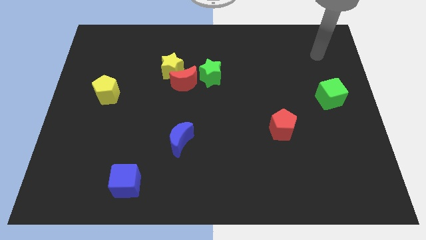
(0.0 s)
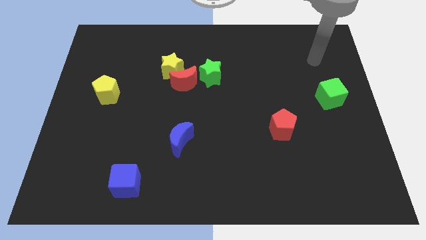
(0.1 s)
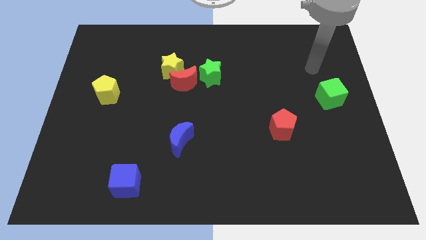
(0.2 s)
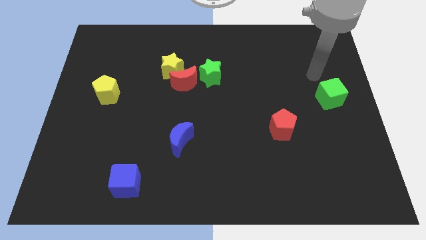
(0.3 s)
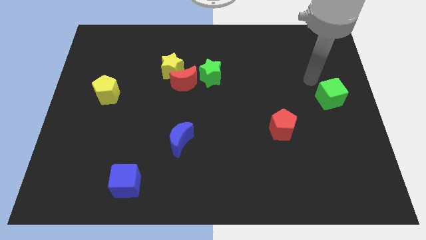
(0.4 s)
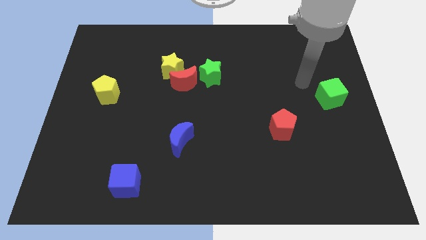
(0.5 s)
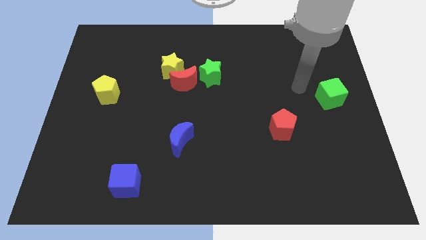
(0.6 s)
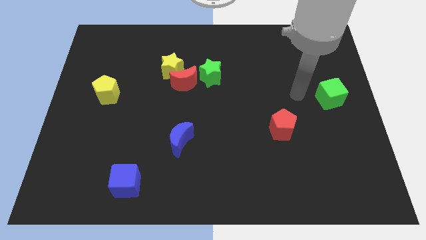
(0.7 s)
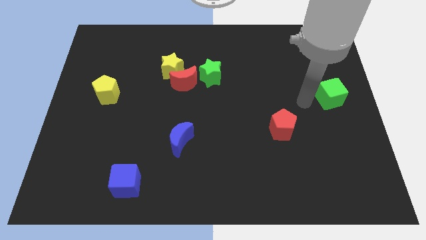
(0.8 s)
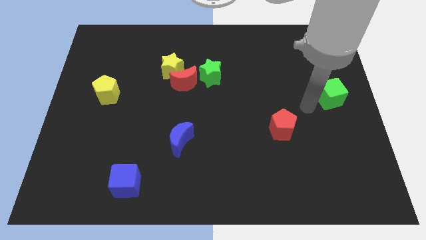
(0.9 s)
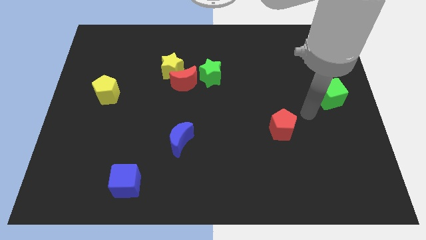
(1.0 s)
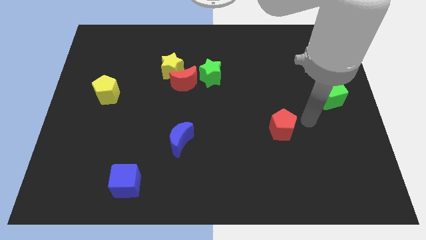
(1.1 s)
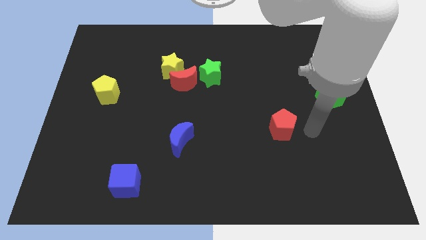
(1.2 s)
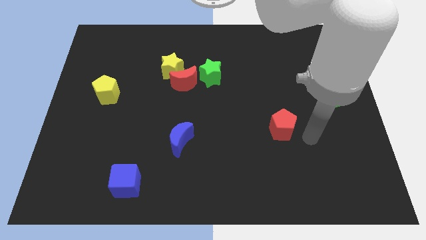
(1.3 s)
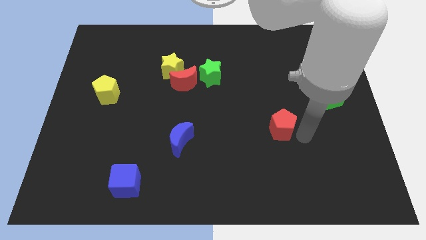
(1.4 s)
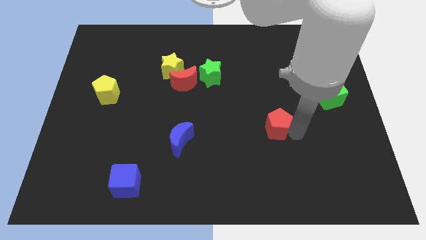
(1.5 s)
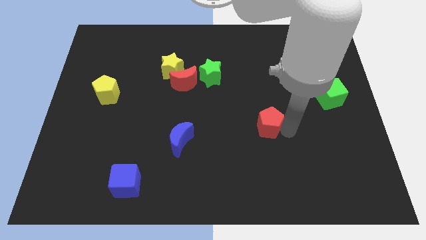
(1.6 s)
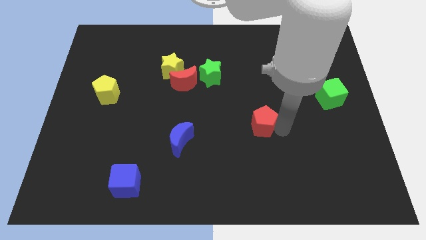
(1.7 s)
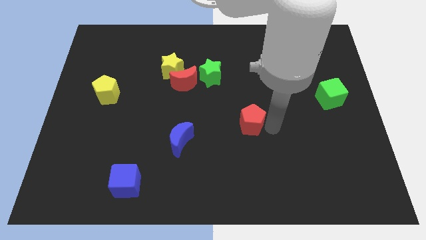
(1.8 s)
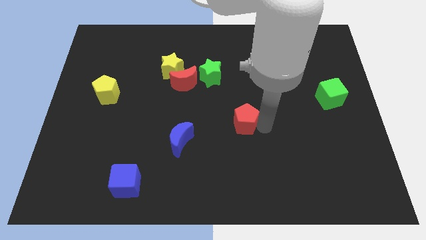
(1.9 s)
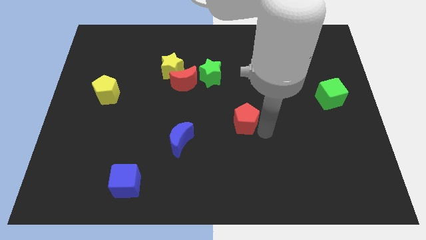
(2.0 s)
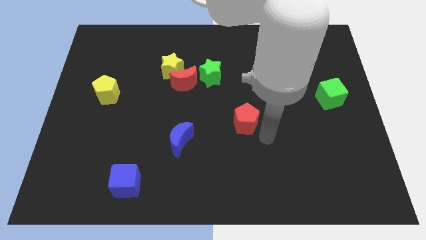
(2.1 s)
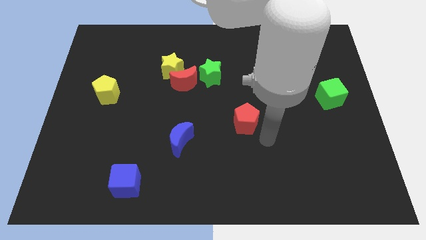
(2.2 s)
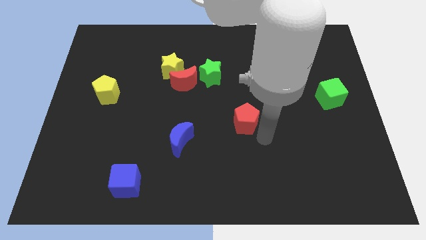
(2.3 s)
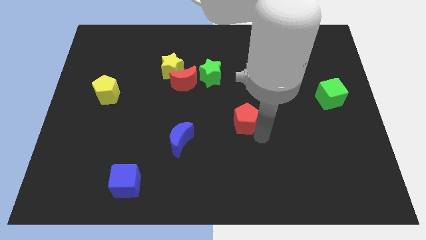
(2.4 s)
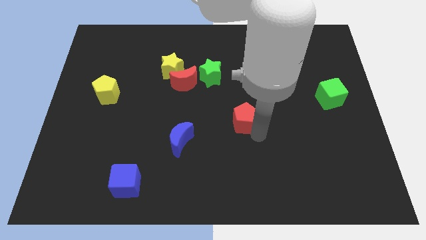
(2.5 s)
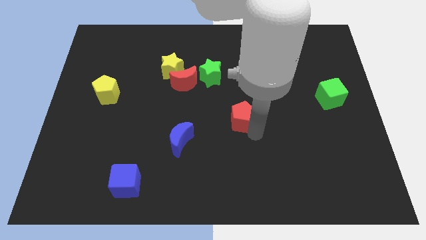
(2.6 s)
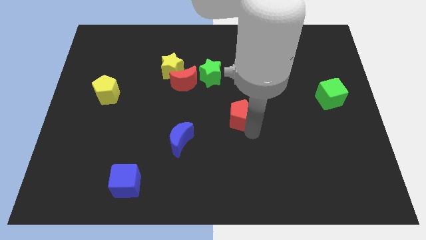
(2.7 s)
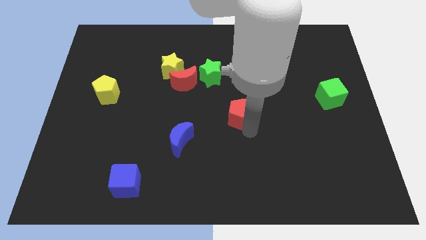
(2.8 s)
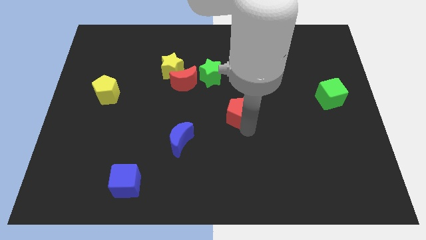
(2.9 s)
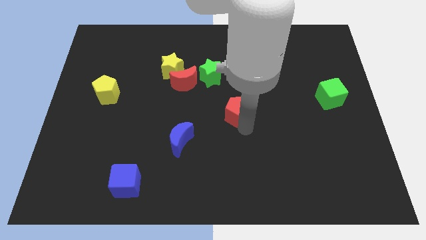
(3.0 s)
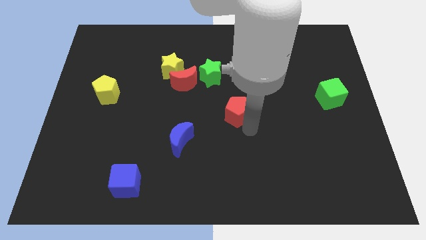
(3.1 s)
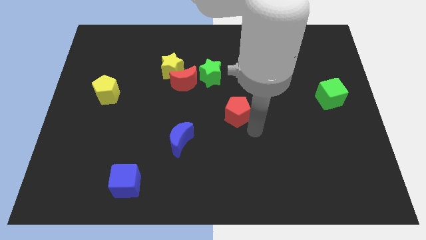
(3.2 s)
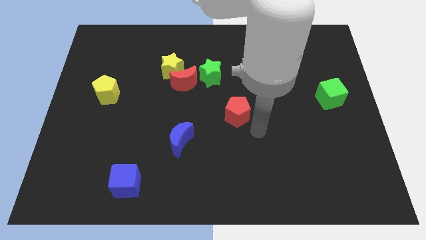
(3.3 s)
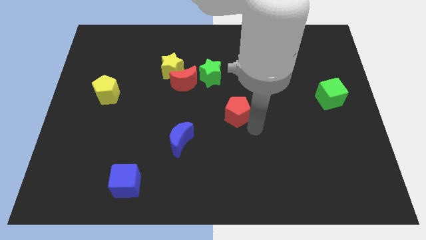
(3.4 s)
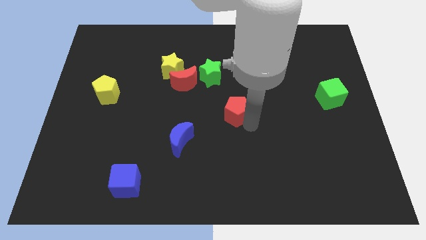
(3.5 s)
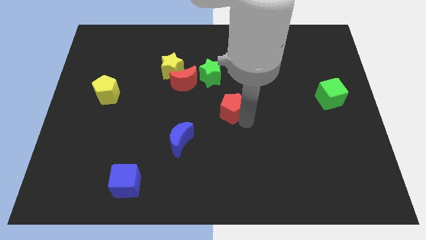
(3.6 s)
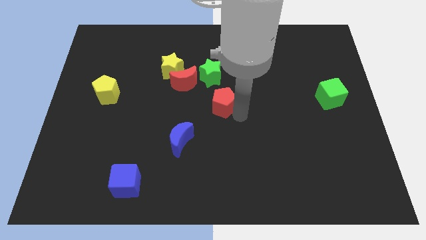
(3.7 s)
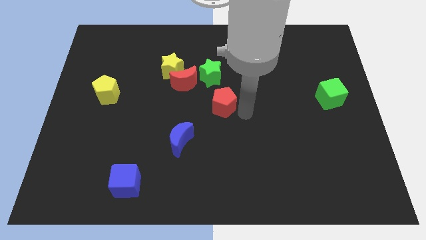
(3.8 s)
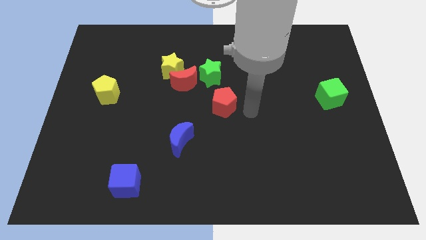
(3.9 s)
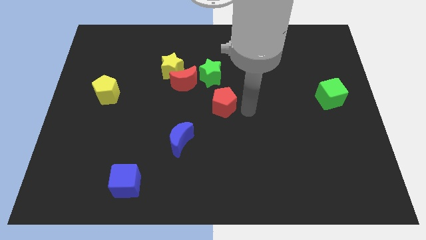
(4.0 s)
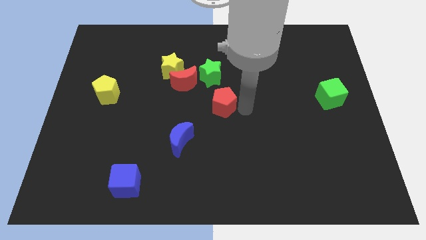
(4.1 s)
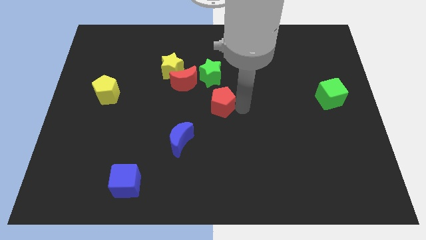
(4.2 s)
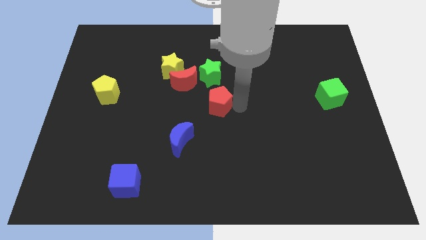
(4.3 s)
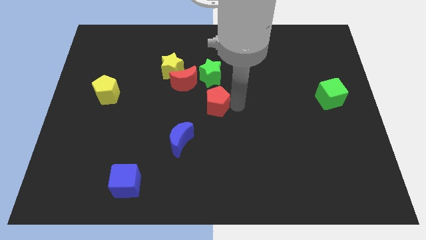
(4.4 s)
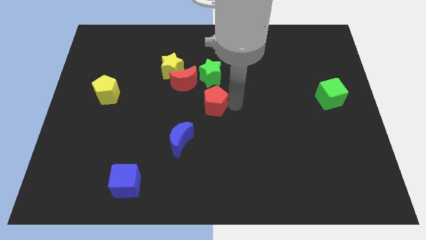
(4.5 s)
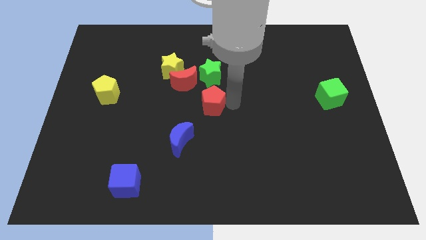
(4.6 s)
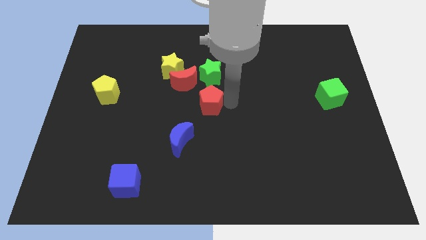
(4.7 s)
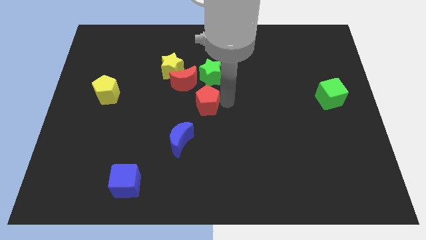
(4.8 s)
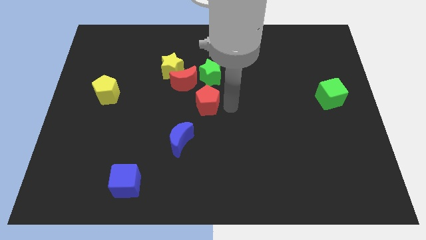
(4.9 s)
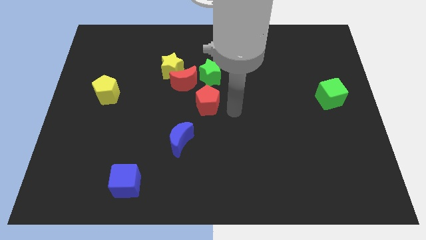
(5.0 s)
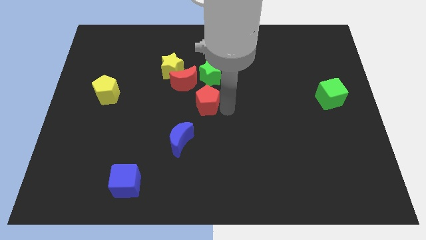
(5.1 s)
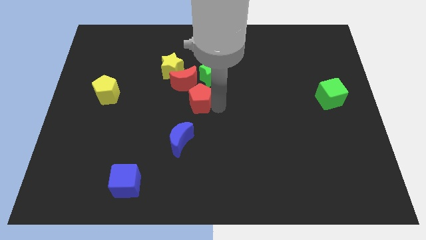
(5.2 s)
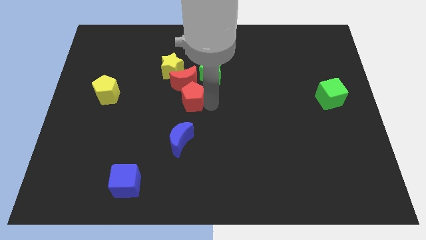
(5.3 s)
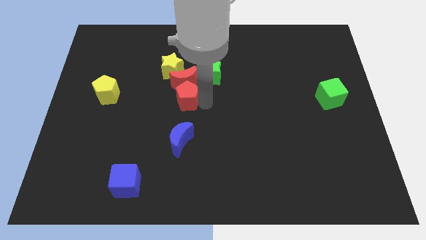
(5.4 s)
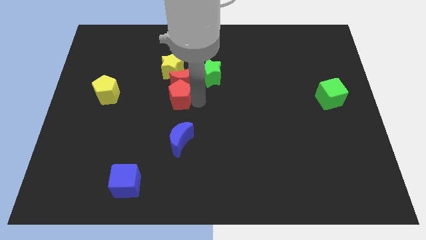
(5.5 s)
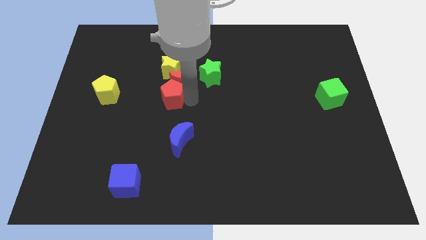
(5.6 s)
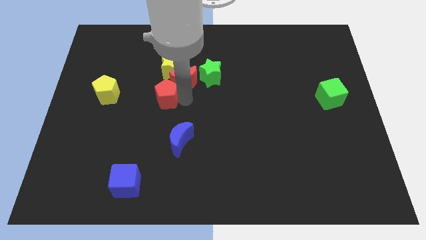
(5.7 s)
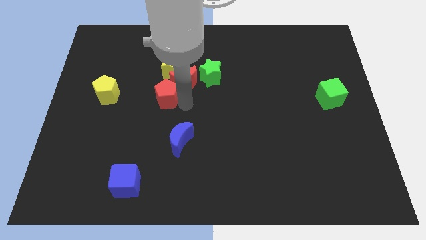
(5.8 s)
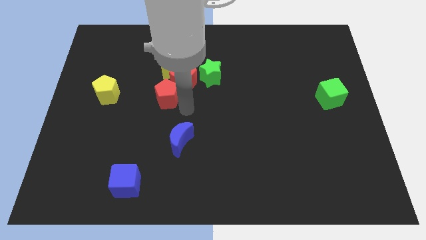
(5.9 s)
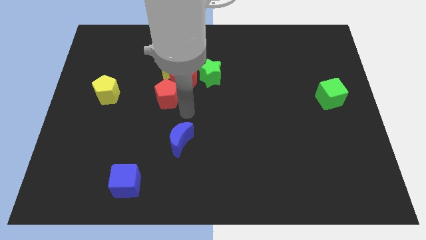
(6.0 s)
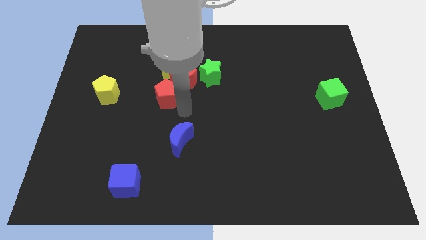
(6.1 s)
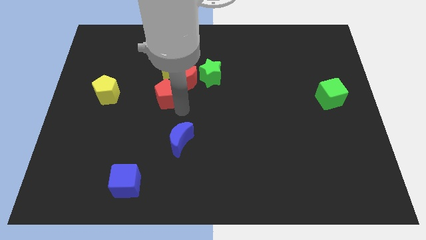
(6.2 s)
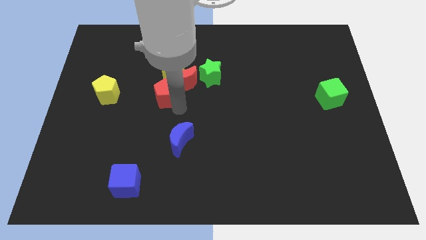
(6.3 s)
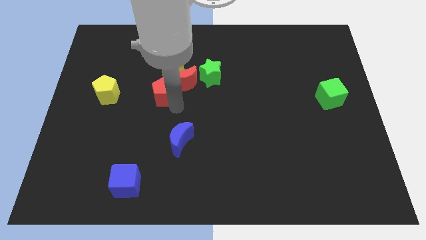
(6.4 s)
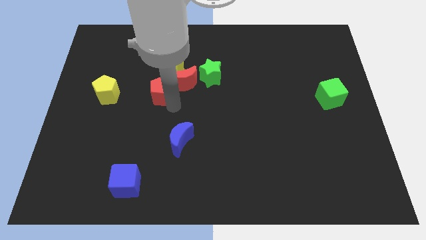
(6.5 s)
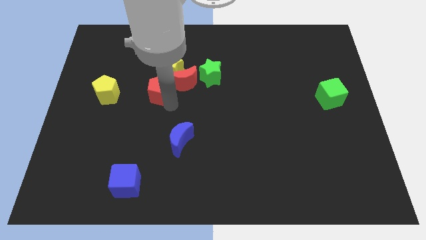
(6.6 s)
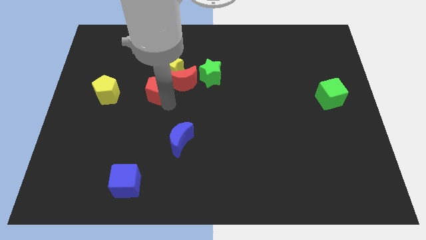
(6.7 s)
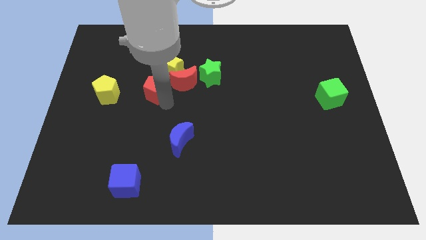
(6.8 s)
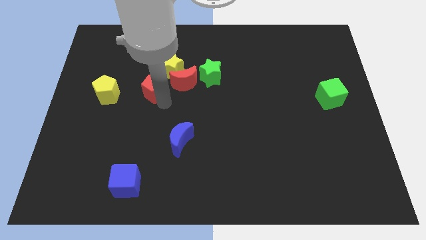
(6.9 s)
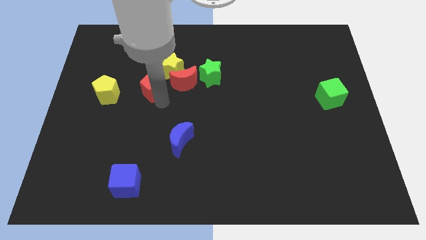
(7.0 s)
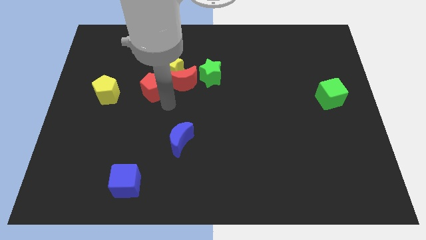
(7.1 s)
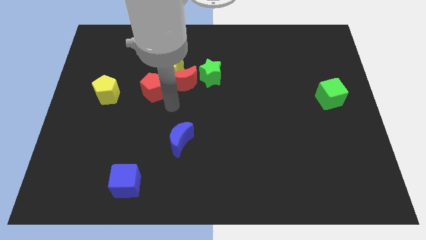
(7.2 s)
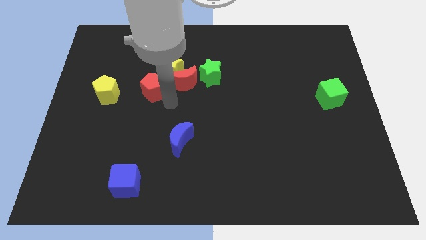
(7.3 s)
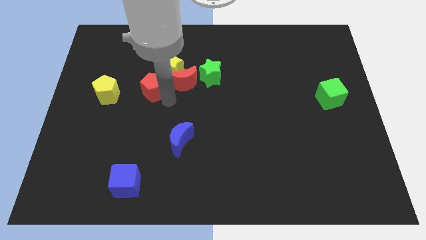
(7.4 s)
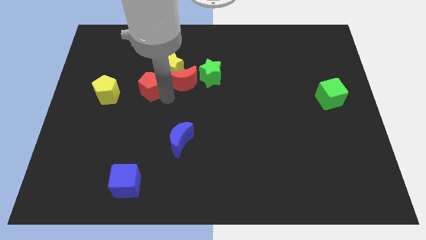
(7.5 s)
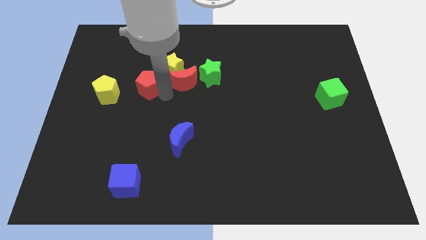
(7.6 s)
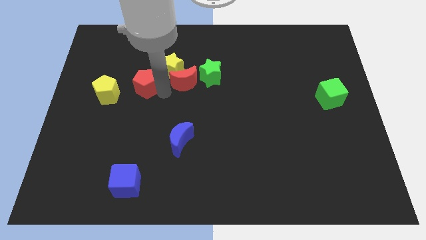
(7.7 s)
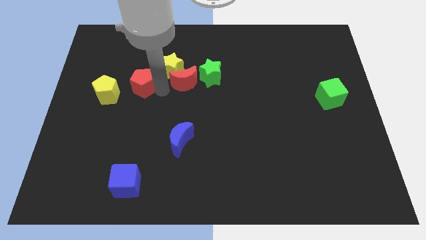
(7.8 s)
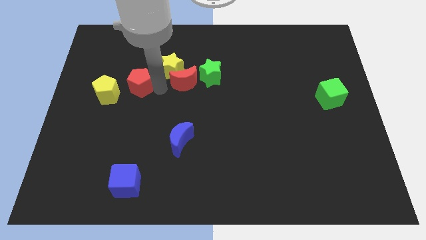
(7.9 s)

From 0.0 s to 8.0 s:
move the red pentagon to the left of the yellow star
